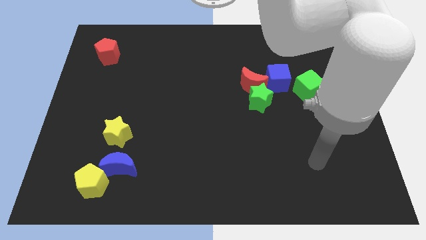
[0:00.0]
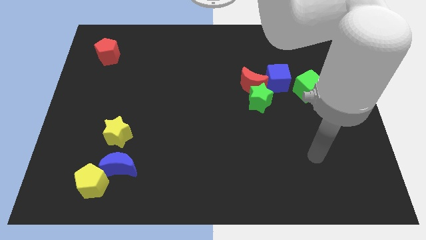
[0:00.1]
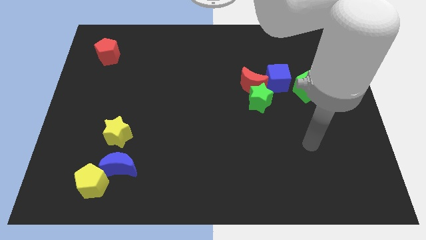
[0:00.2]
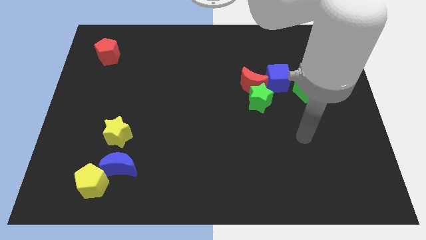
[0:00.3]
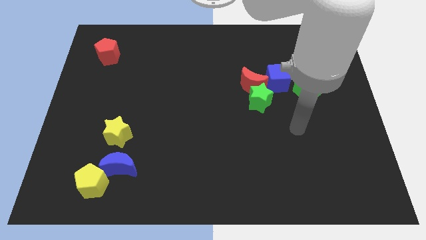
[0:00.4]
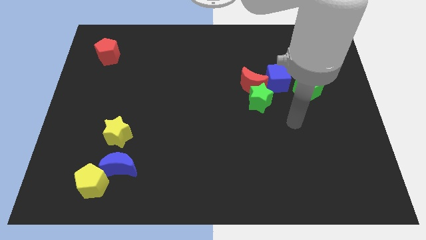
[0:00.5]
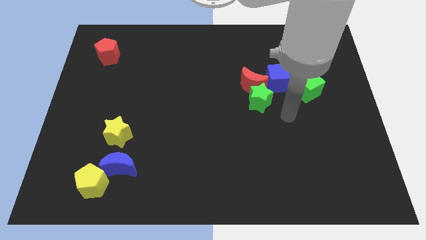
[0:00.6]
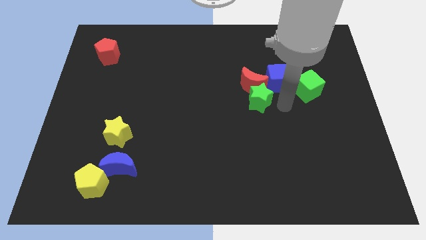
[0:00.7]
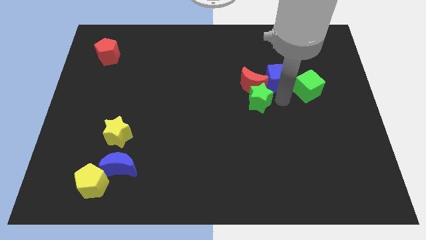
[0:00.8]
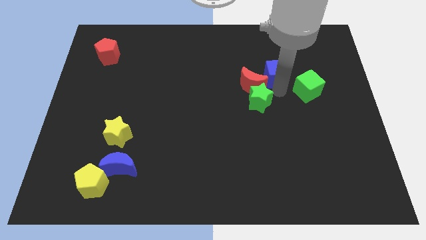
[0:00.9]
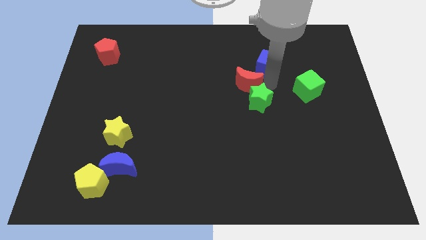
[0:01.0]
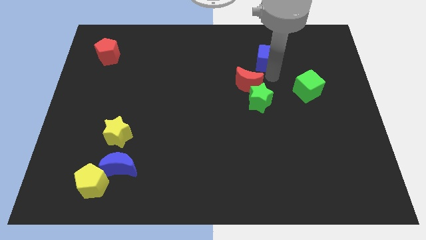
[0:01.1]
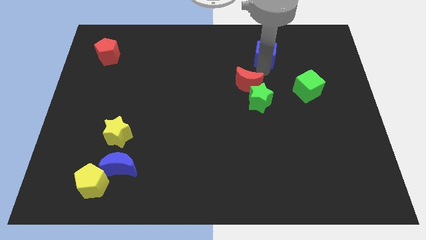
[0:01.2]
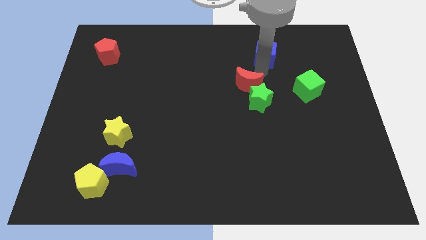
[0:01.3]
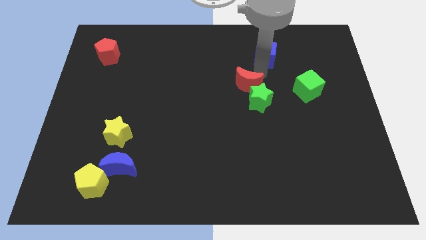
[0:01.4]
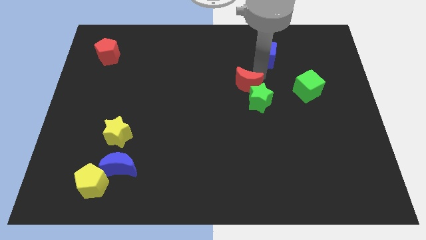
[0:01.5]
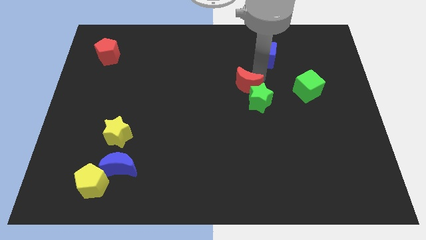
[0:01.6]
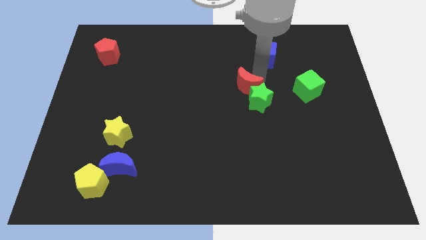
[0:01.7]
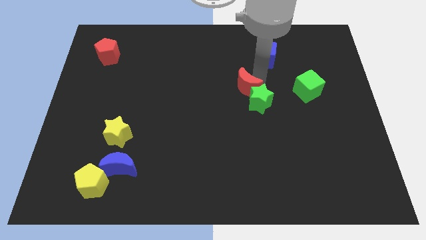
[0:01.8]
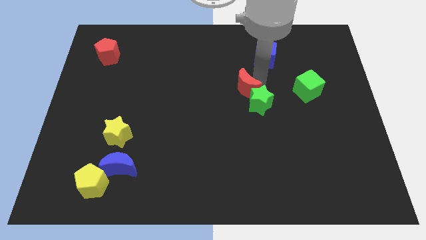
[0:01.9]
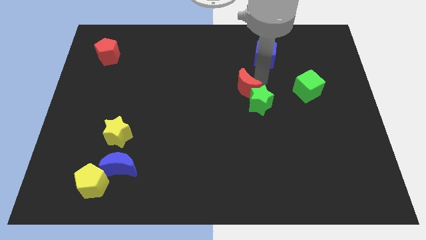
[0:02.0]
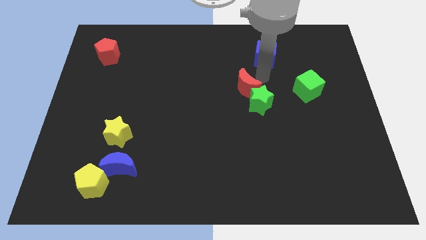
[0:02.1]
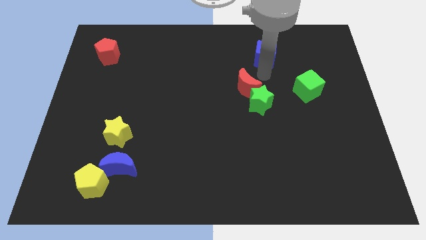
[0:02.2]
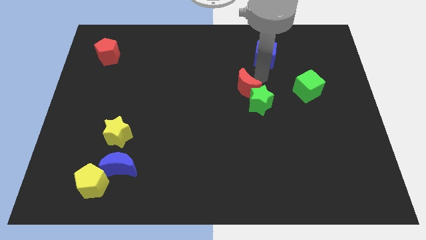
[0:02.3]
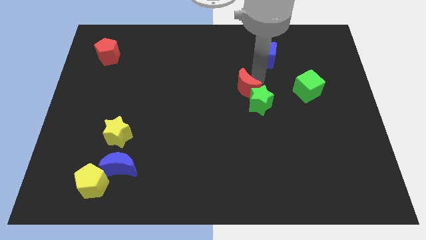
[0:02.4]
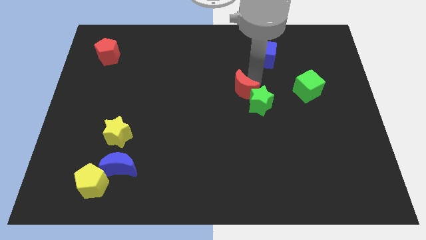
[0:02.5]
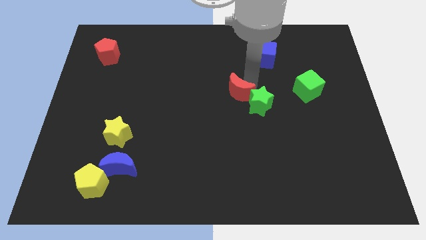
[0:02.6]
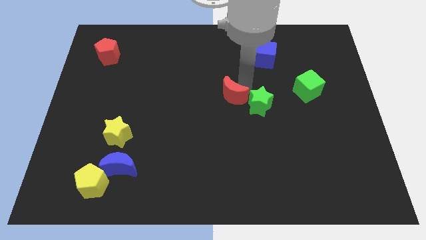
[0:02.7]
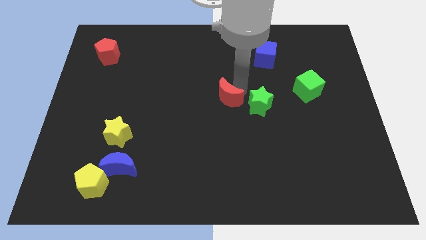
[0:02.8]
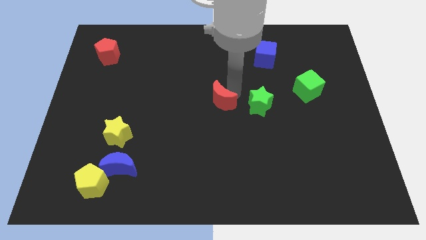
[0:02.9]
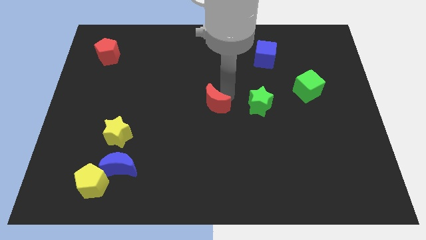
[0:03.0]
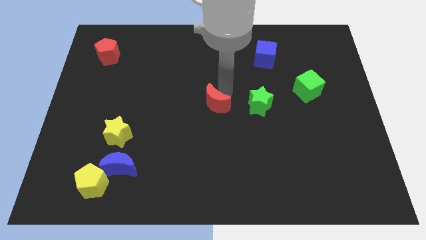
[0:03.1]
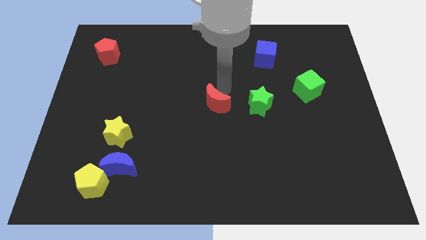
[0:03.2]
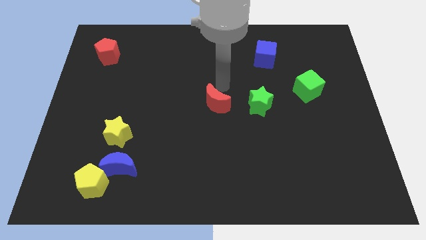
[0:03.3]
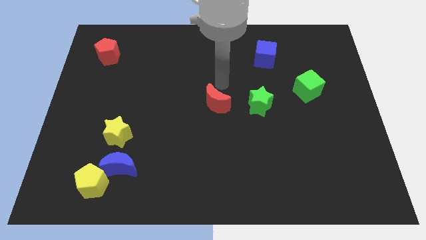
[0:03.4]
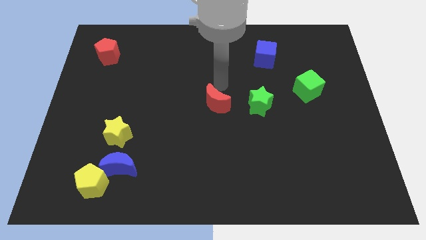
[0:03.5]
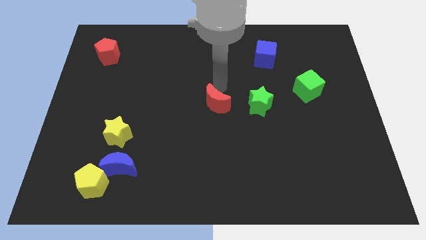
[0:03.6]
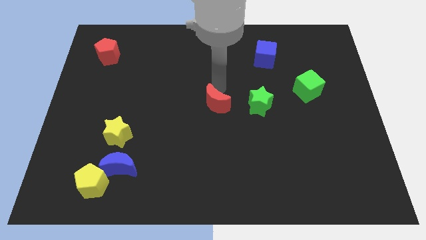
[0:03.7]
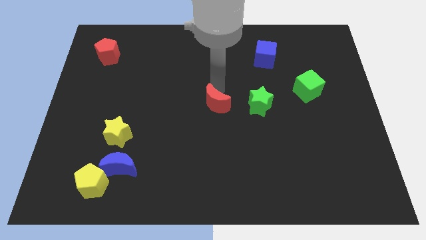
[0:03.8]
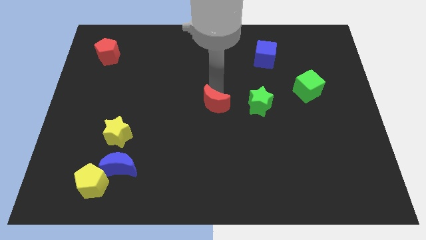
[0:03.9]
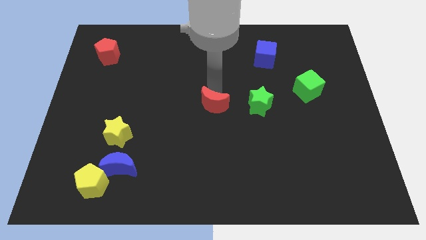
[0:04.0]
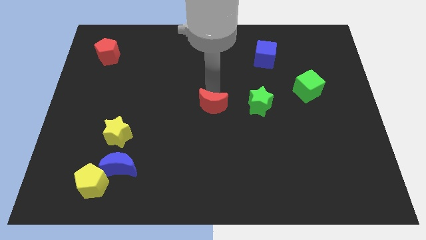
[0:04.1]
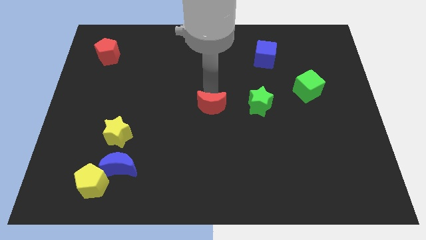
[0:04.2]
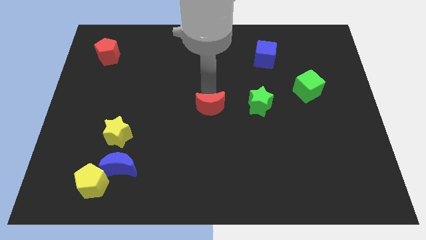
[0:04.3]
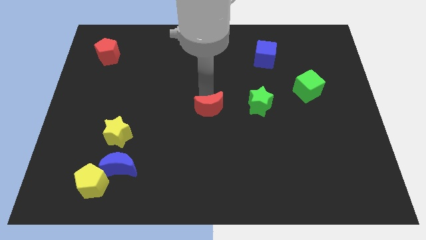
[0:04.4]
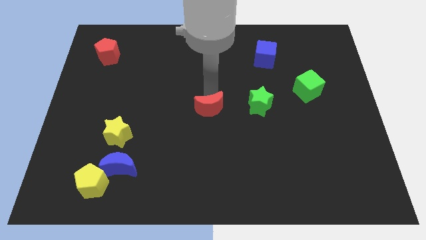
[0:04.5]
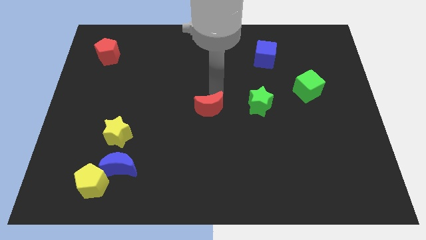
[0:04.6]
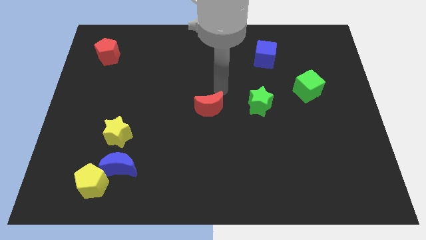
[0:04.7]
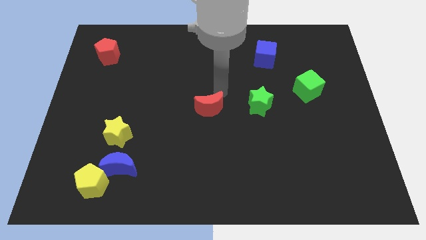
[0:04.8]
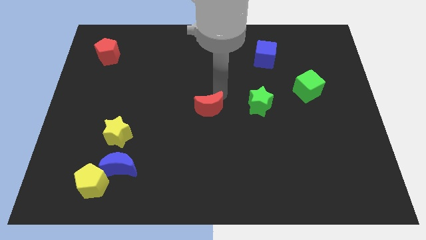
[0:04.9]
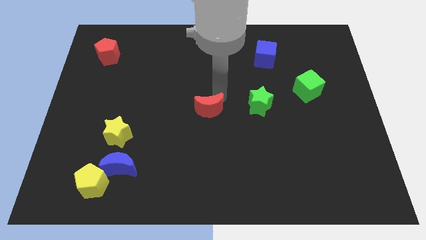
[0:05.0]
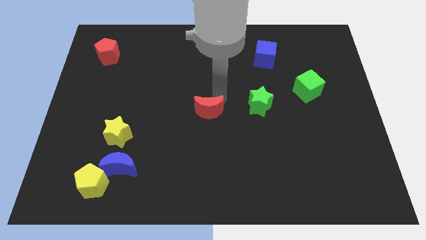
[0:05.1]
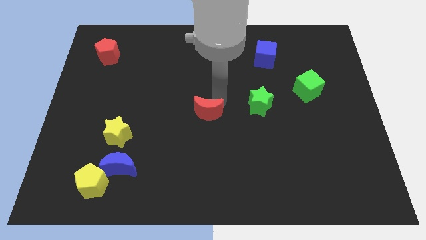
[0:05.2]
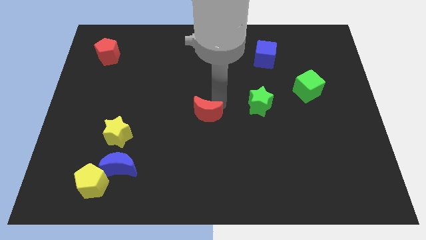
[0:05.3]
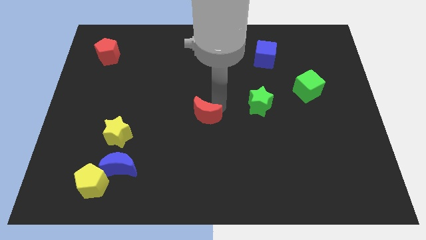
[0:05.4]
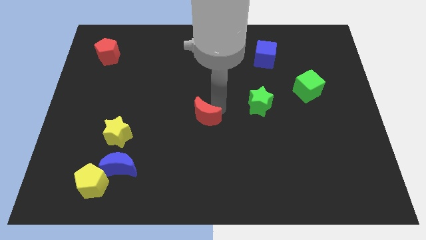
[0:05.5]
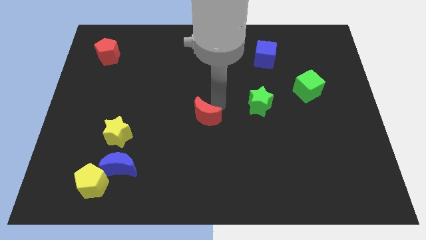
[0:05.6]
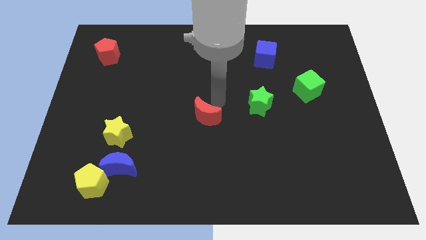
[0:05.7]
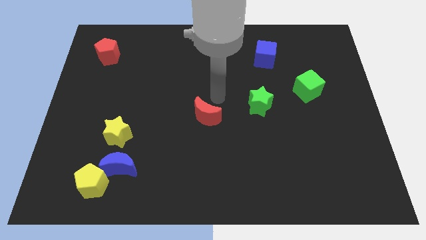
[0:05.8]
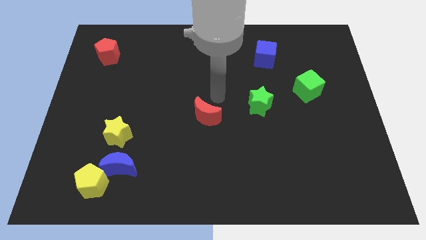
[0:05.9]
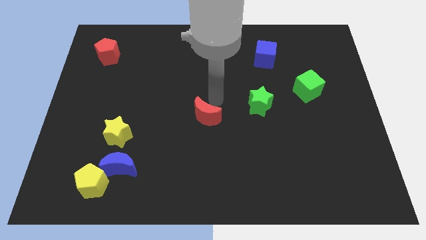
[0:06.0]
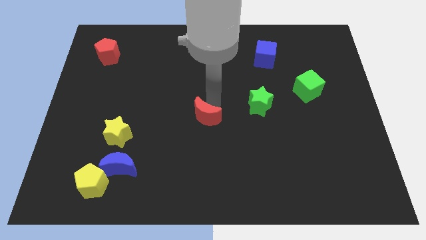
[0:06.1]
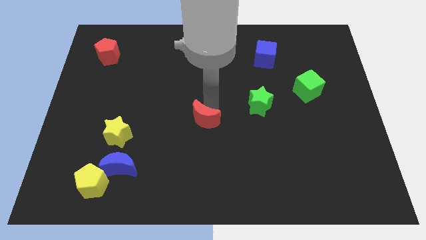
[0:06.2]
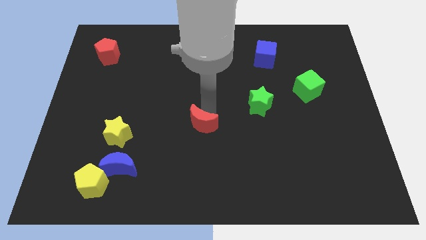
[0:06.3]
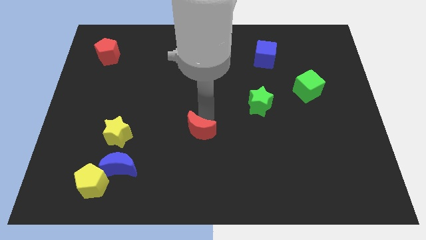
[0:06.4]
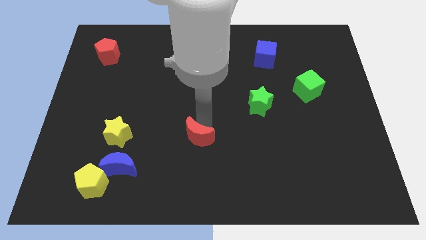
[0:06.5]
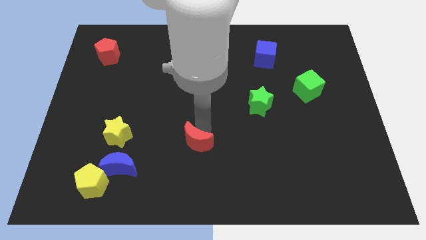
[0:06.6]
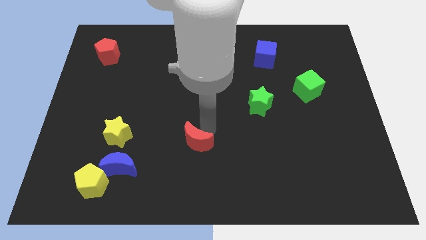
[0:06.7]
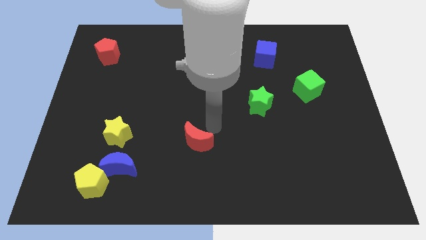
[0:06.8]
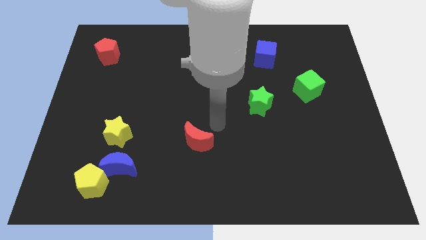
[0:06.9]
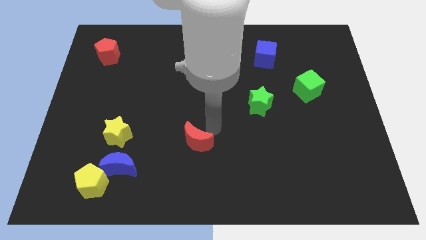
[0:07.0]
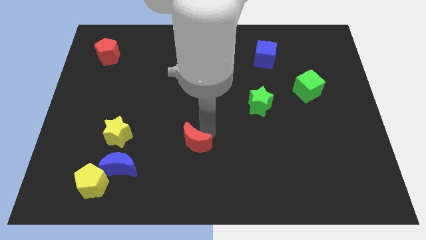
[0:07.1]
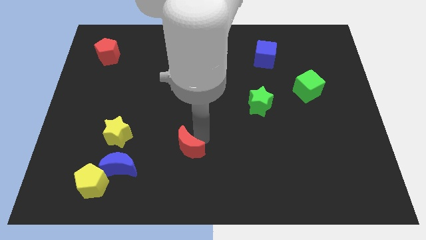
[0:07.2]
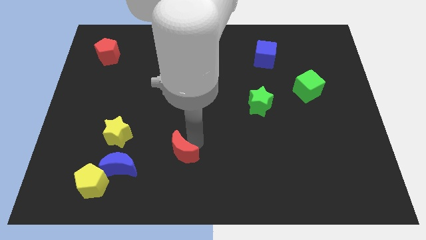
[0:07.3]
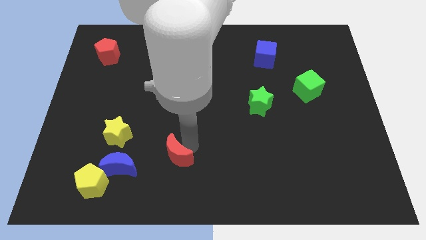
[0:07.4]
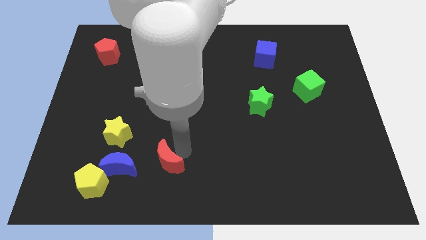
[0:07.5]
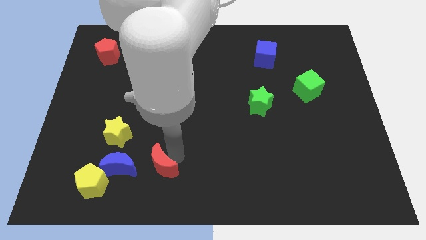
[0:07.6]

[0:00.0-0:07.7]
push the red moon to the right side of the yellow pentagon

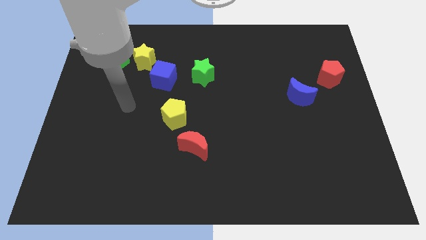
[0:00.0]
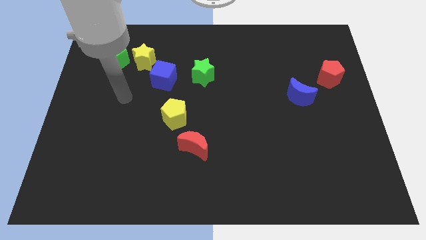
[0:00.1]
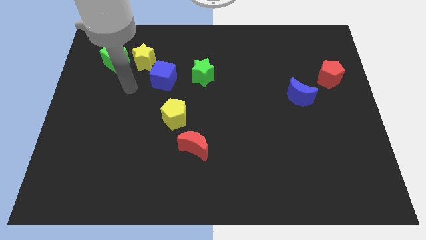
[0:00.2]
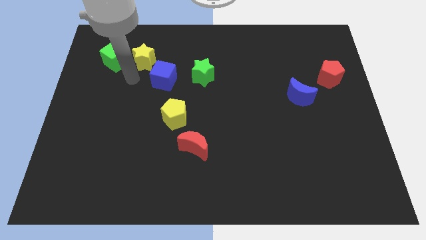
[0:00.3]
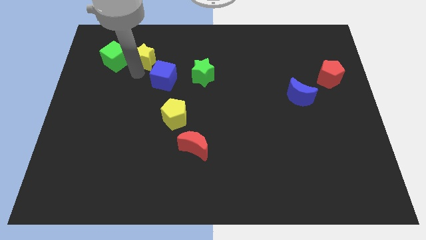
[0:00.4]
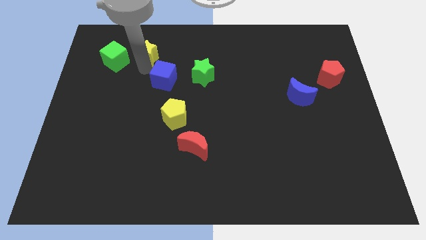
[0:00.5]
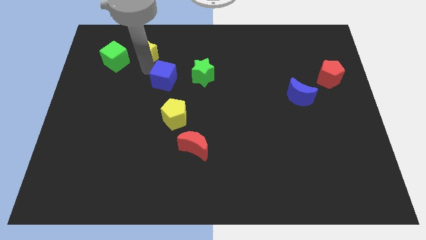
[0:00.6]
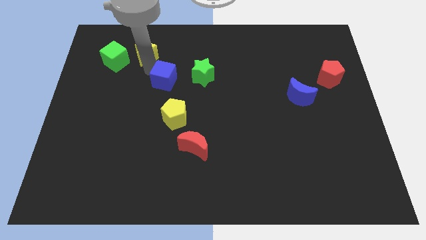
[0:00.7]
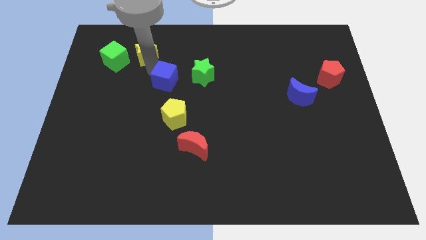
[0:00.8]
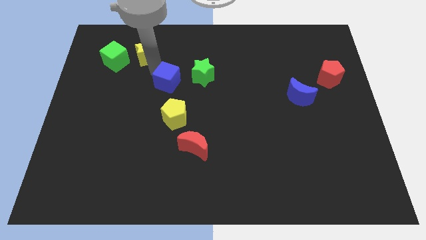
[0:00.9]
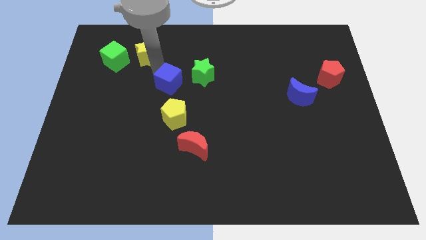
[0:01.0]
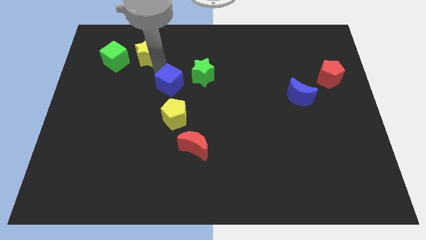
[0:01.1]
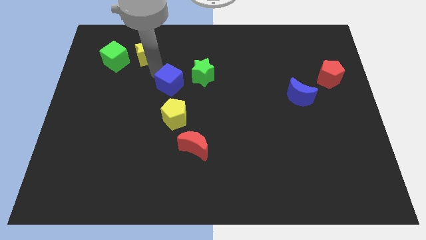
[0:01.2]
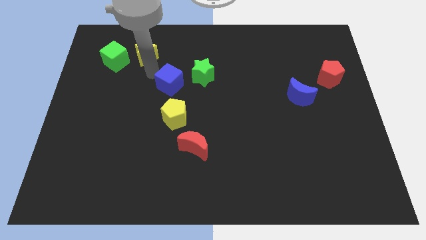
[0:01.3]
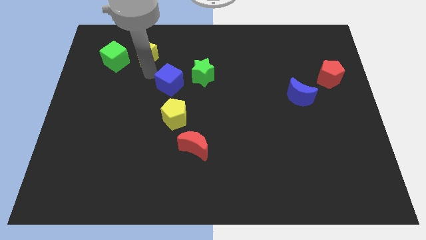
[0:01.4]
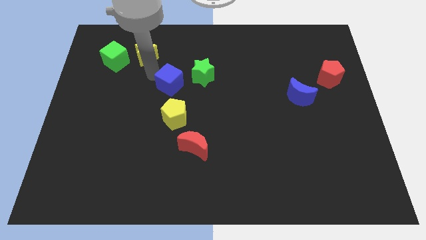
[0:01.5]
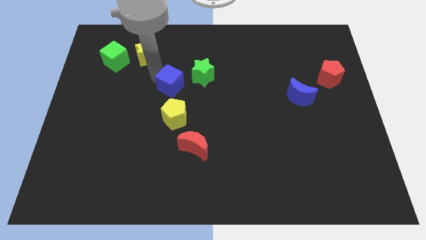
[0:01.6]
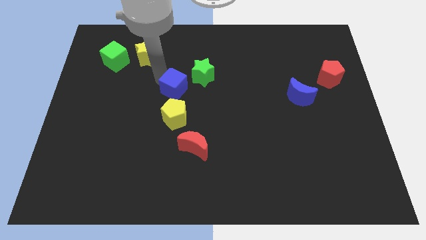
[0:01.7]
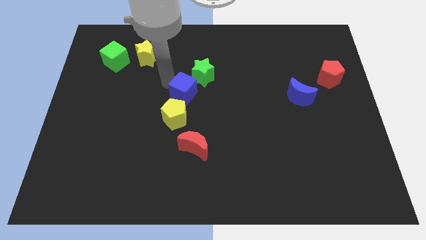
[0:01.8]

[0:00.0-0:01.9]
put the blue cube below the green star
